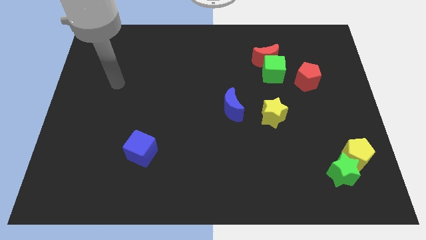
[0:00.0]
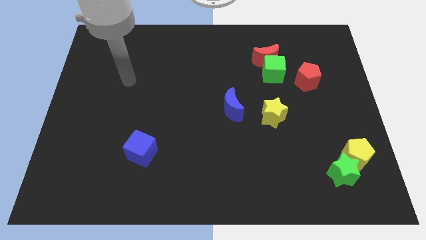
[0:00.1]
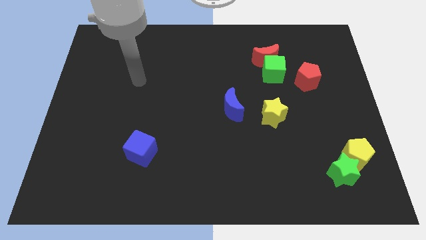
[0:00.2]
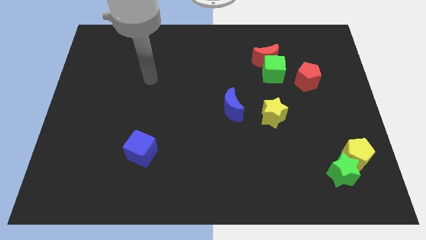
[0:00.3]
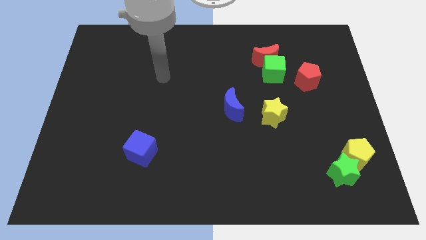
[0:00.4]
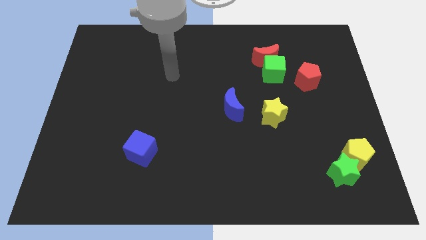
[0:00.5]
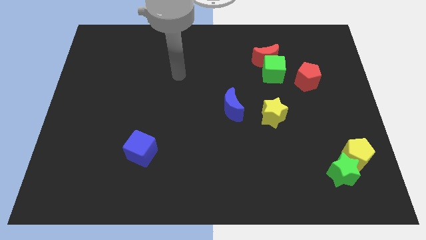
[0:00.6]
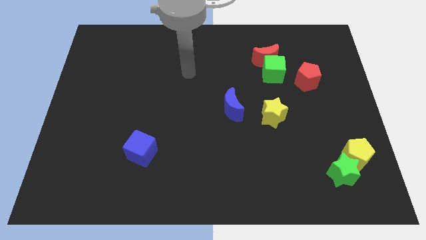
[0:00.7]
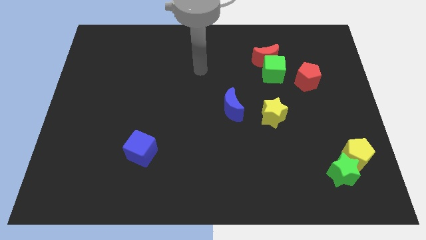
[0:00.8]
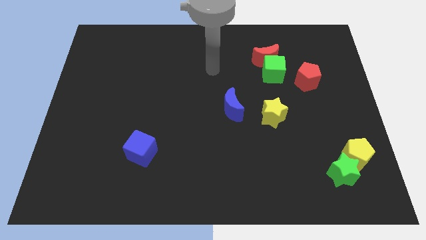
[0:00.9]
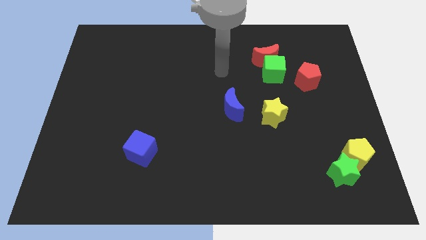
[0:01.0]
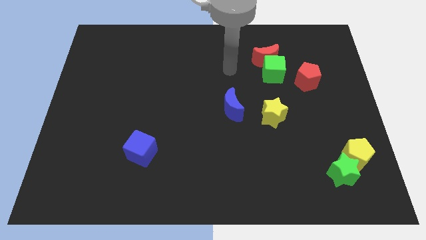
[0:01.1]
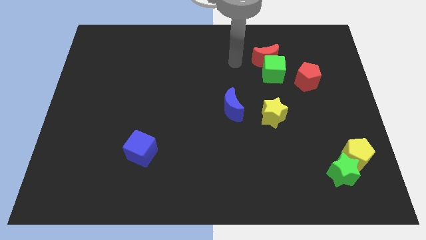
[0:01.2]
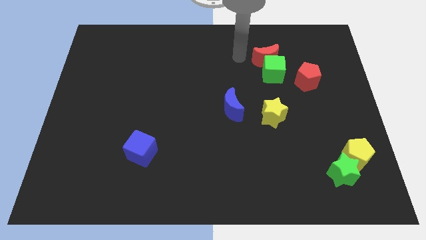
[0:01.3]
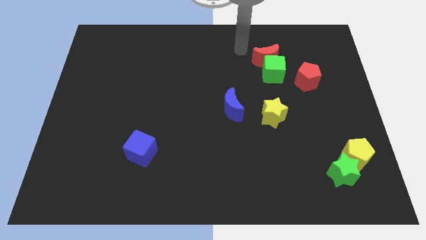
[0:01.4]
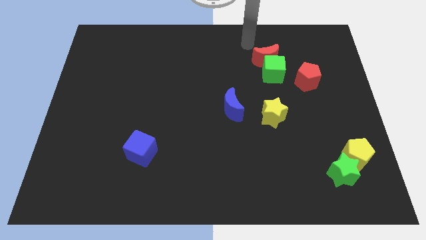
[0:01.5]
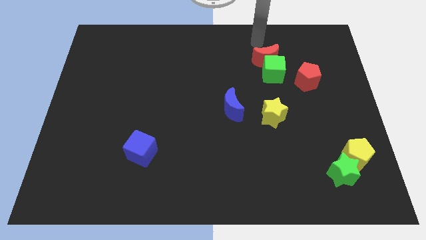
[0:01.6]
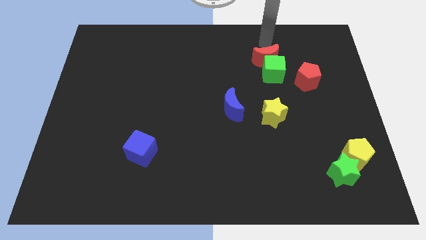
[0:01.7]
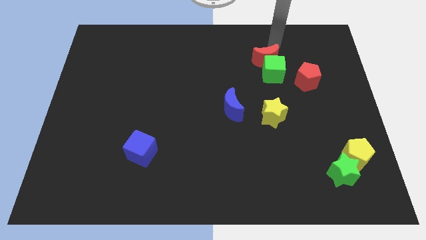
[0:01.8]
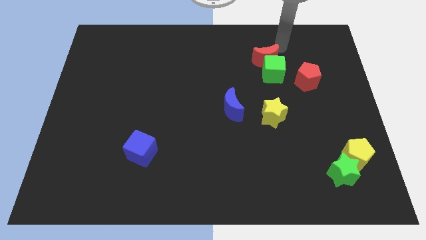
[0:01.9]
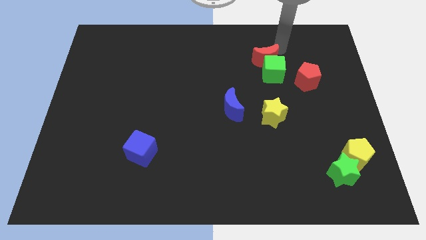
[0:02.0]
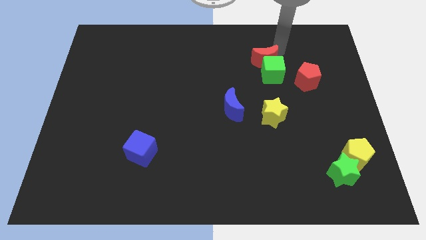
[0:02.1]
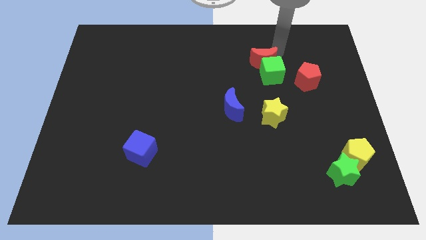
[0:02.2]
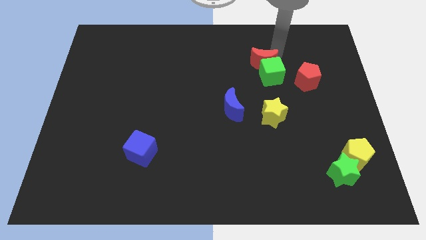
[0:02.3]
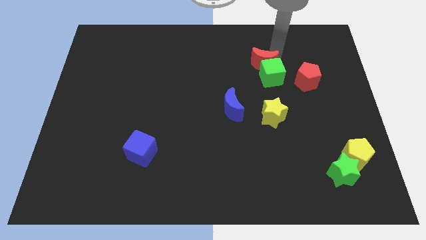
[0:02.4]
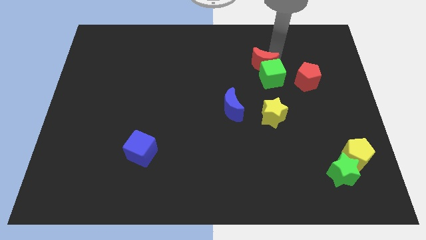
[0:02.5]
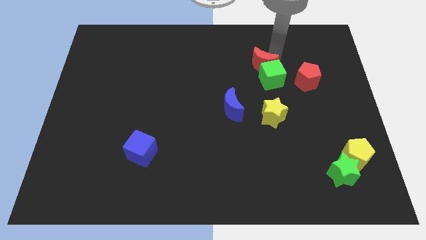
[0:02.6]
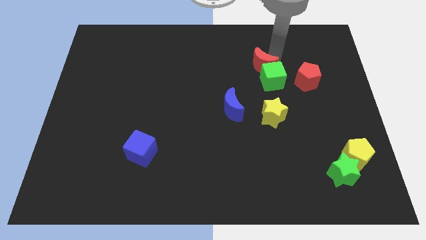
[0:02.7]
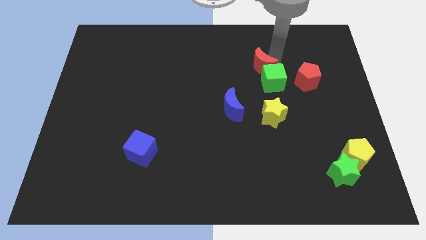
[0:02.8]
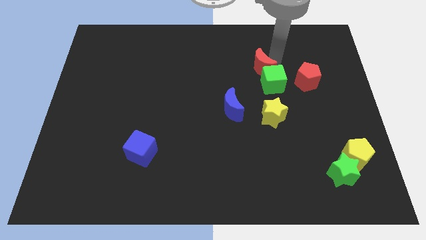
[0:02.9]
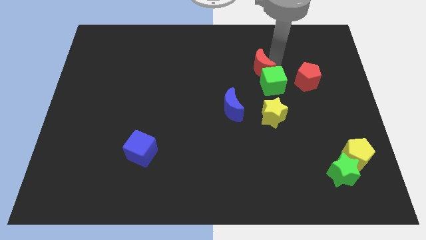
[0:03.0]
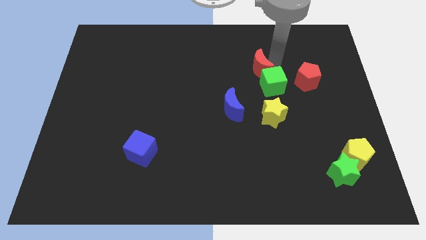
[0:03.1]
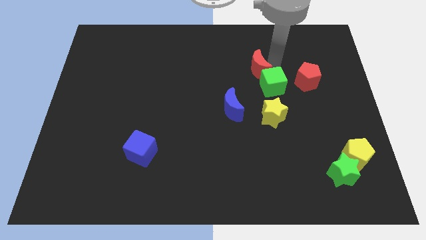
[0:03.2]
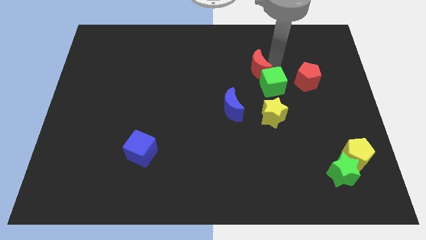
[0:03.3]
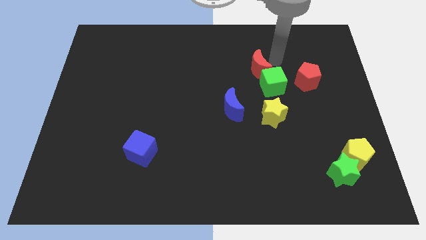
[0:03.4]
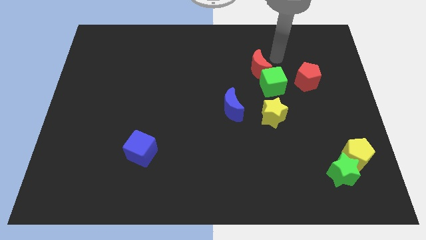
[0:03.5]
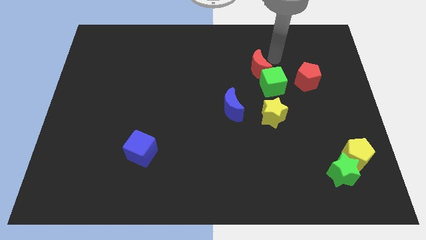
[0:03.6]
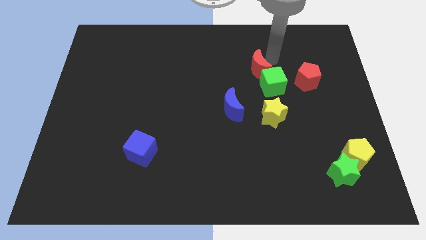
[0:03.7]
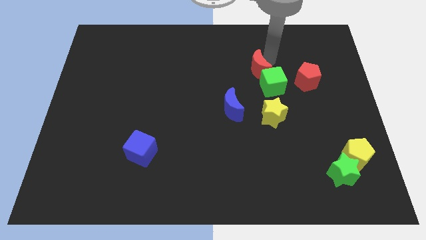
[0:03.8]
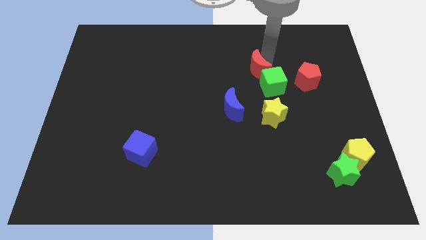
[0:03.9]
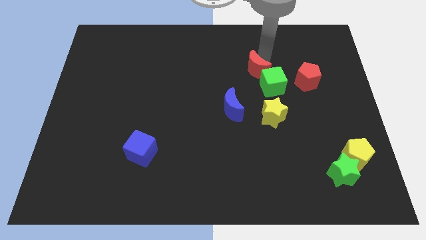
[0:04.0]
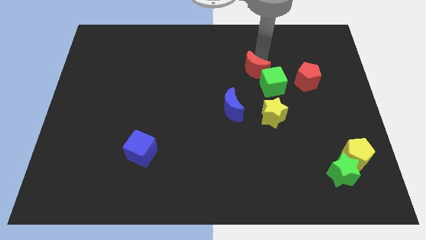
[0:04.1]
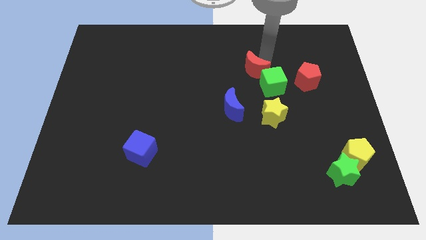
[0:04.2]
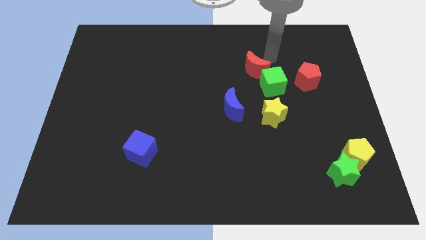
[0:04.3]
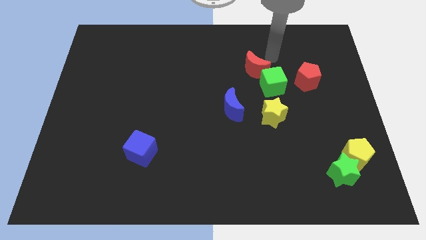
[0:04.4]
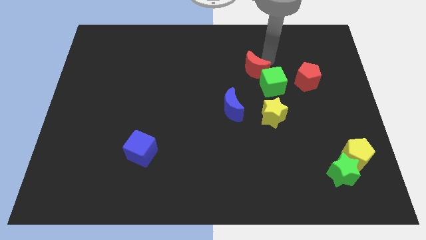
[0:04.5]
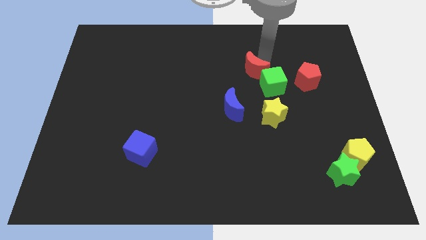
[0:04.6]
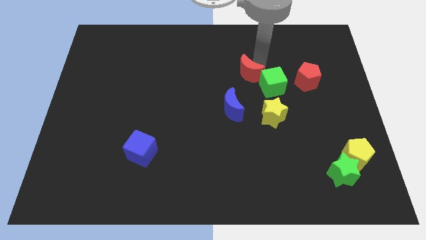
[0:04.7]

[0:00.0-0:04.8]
move the red moon to the middle

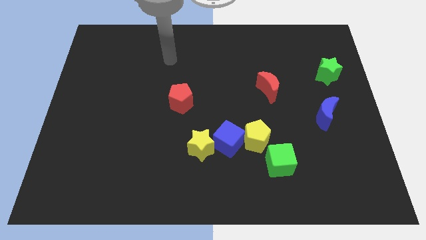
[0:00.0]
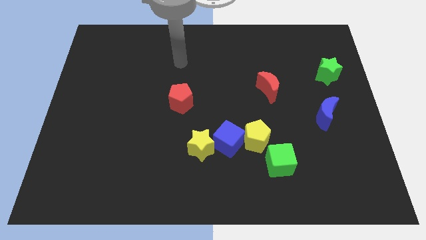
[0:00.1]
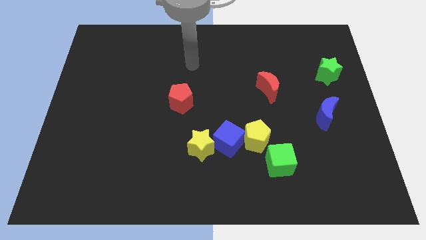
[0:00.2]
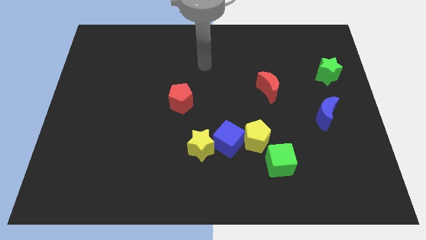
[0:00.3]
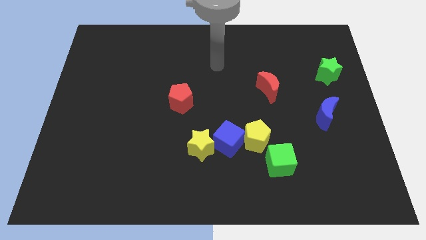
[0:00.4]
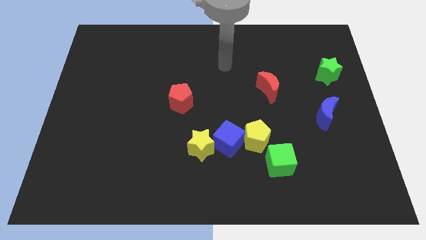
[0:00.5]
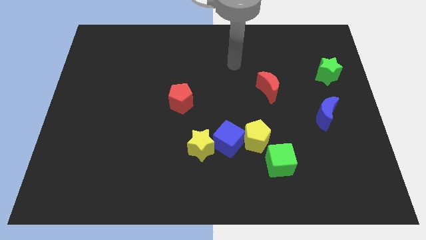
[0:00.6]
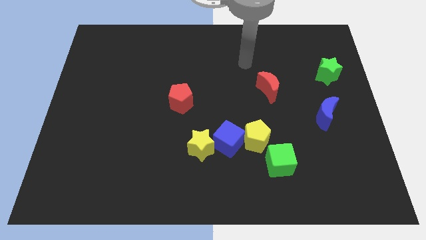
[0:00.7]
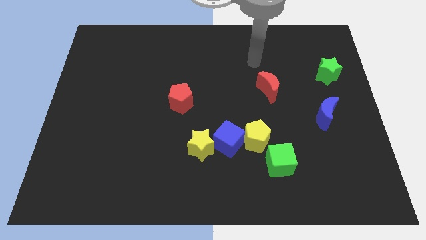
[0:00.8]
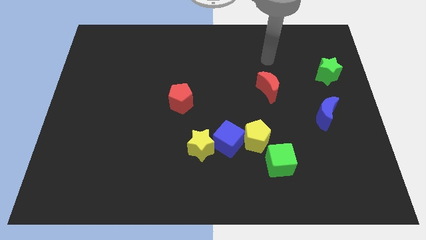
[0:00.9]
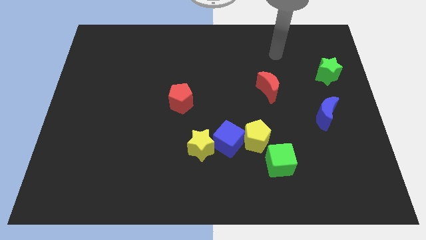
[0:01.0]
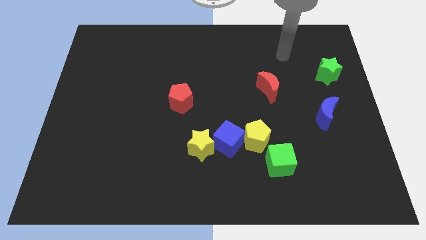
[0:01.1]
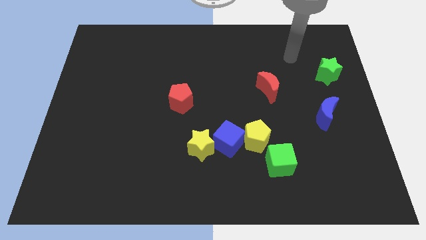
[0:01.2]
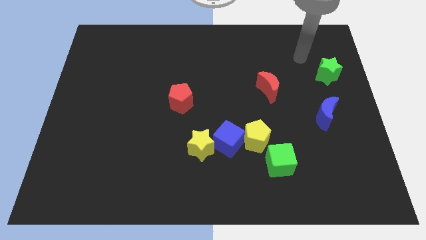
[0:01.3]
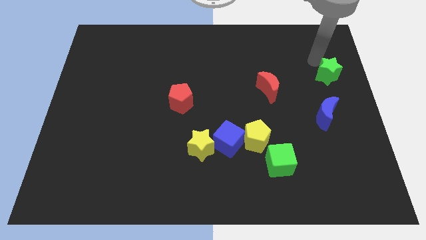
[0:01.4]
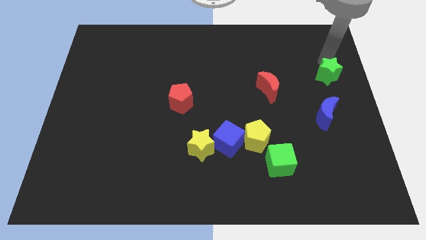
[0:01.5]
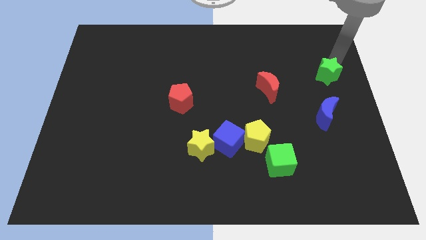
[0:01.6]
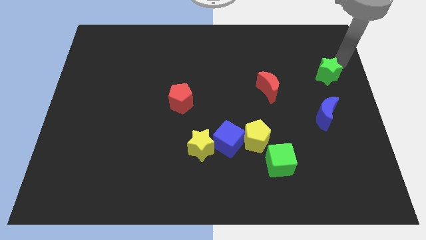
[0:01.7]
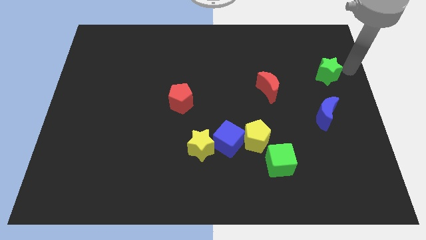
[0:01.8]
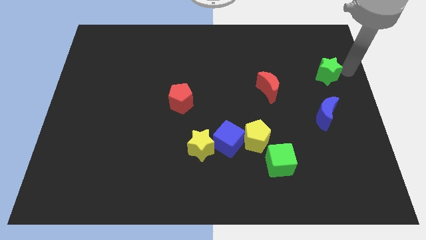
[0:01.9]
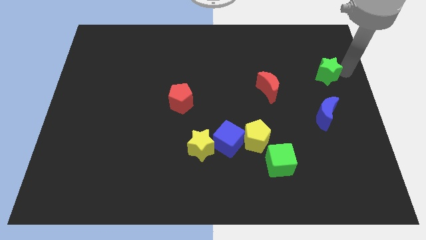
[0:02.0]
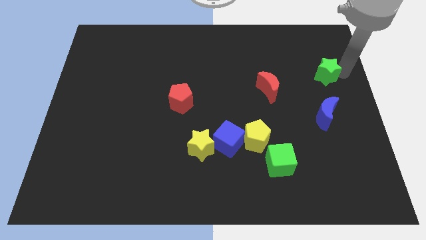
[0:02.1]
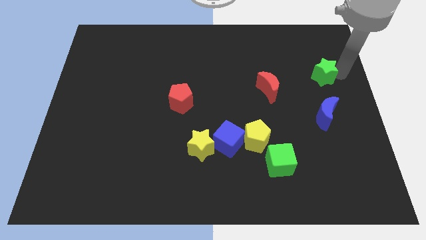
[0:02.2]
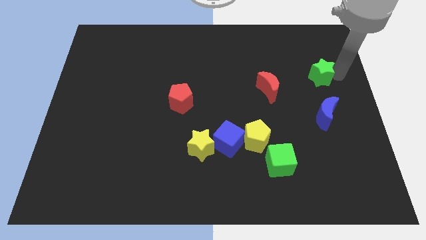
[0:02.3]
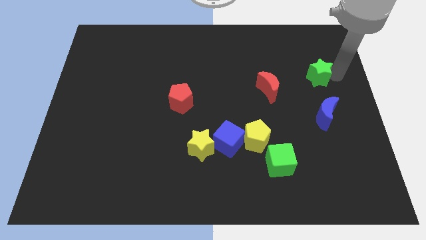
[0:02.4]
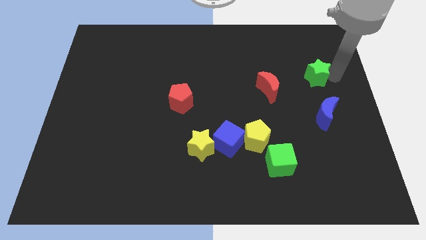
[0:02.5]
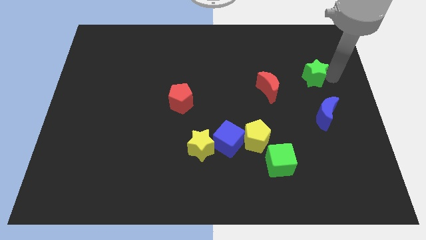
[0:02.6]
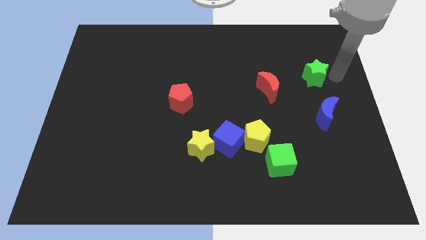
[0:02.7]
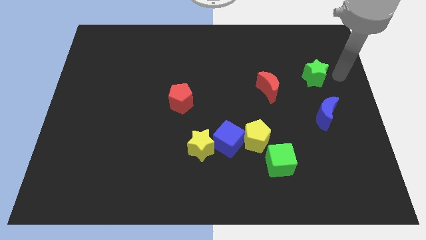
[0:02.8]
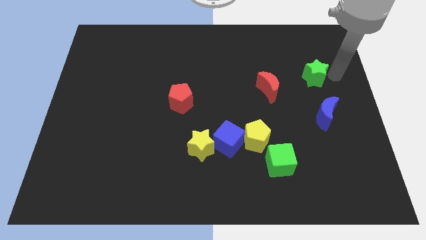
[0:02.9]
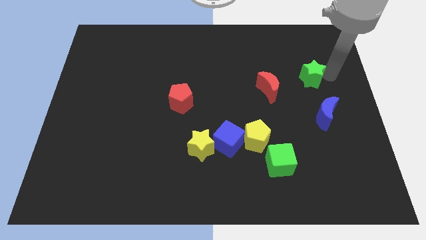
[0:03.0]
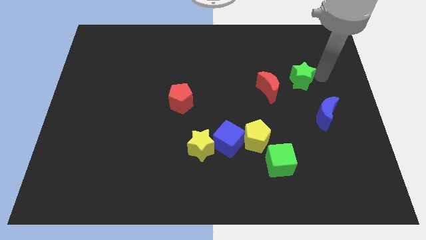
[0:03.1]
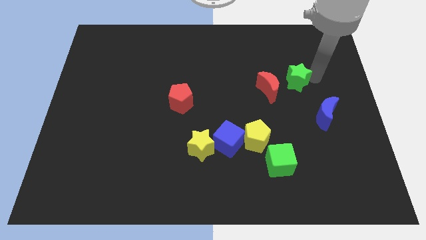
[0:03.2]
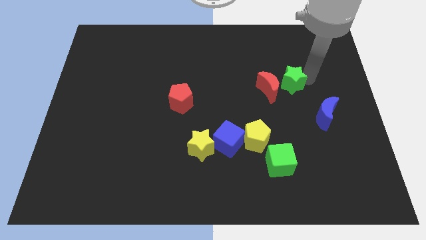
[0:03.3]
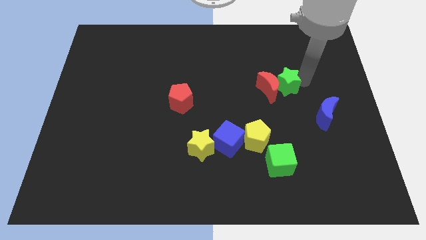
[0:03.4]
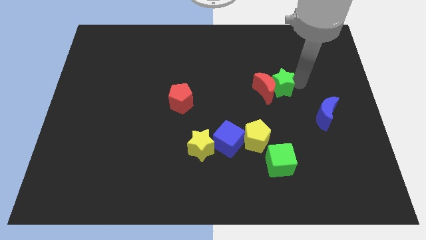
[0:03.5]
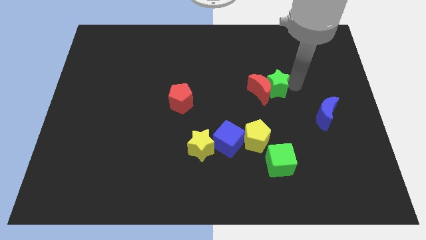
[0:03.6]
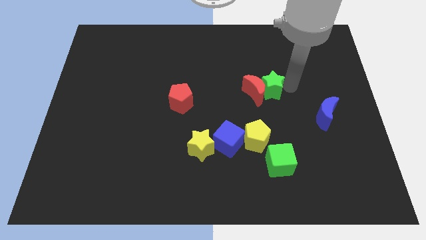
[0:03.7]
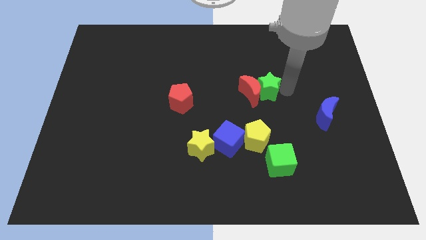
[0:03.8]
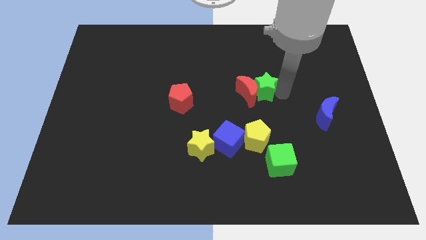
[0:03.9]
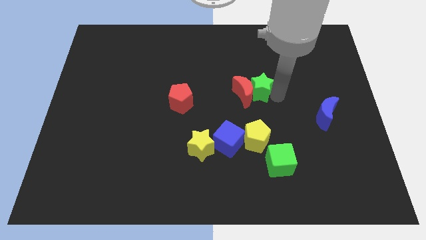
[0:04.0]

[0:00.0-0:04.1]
push the green star to the center of the board
